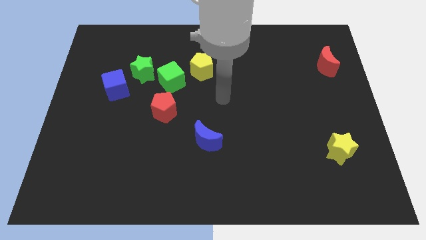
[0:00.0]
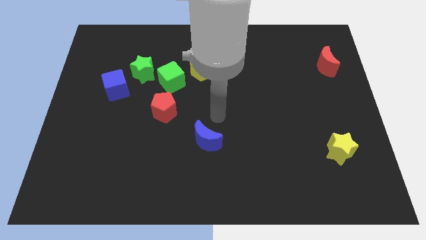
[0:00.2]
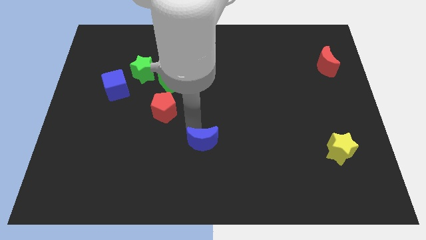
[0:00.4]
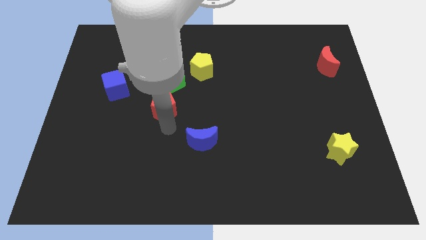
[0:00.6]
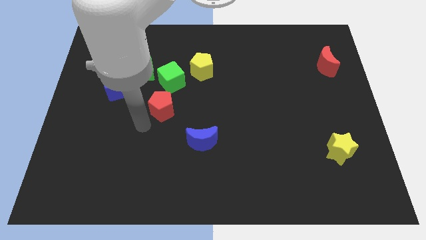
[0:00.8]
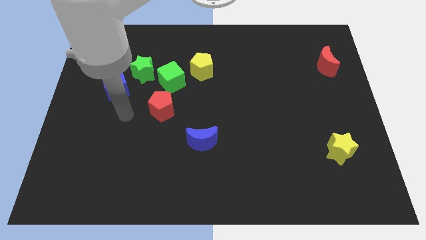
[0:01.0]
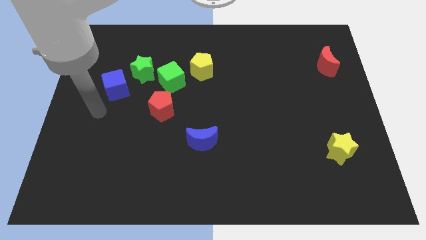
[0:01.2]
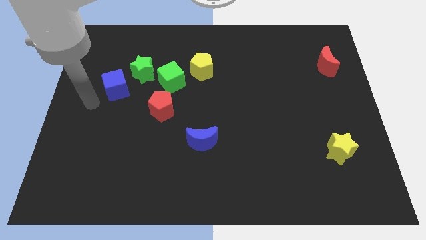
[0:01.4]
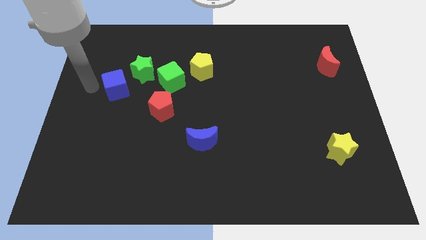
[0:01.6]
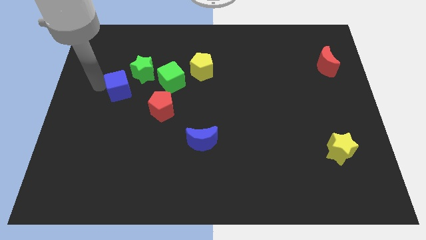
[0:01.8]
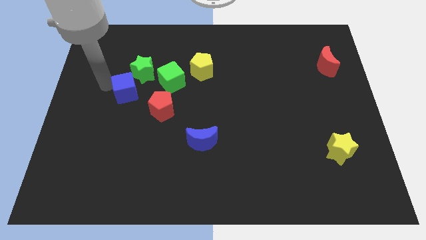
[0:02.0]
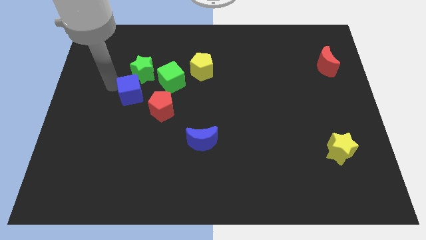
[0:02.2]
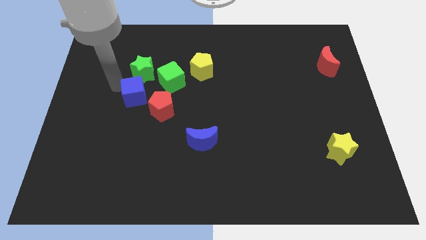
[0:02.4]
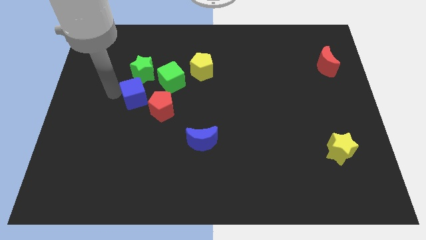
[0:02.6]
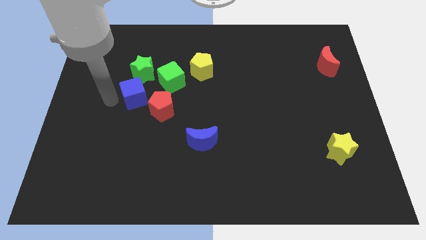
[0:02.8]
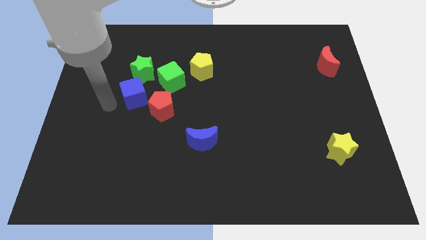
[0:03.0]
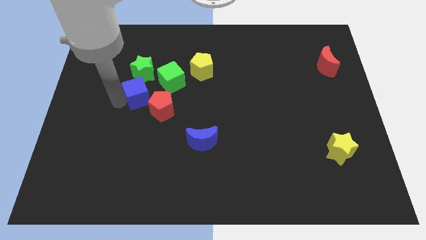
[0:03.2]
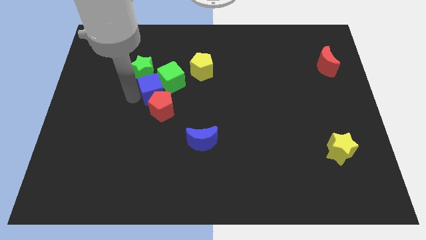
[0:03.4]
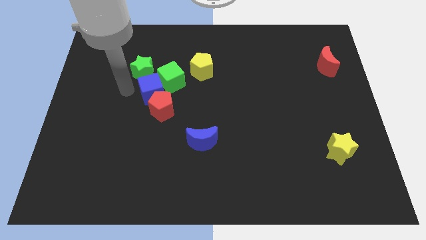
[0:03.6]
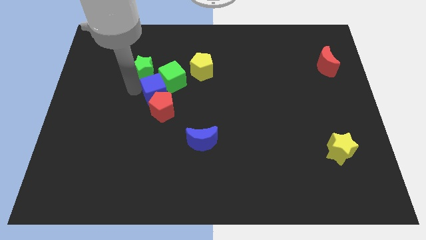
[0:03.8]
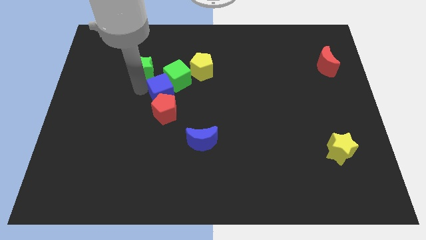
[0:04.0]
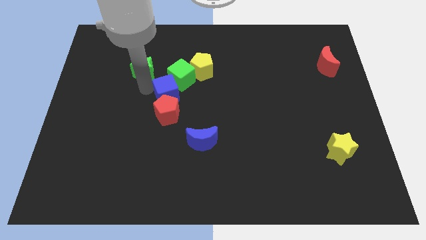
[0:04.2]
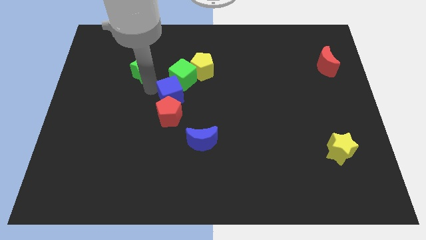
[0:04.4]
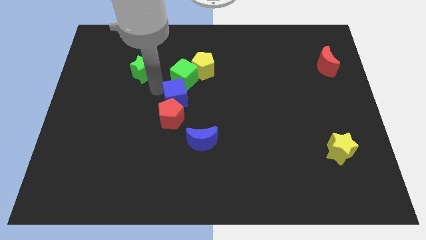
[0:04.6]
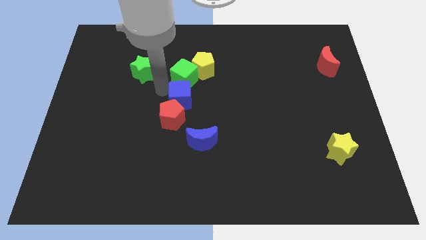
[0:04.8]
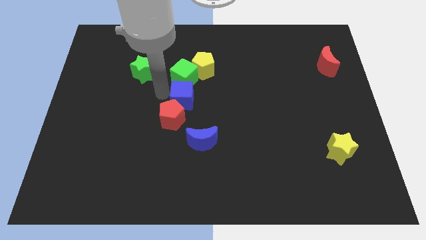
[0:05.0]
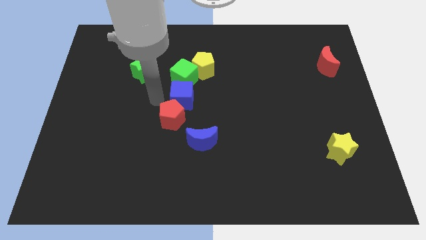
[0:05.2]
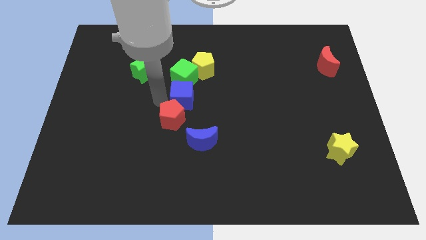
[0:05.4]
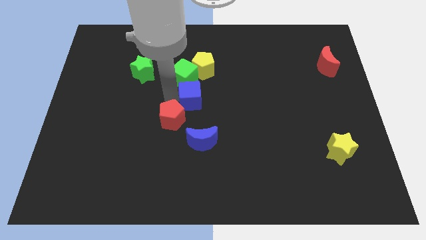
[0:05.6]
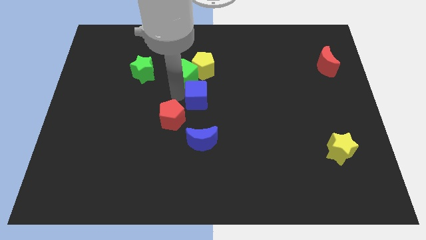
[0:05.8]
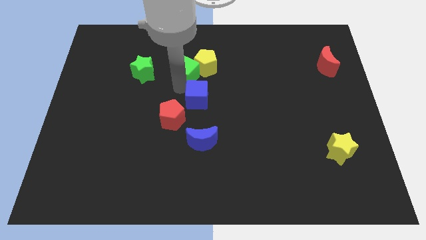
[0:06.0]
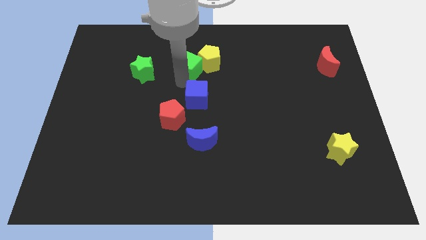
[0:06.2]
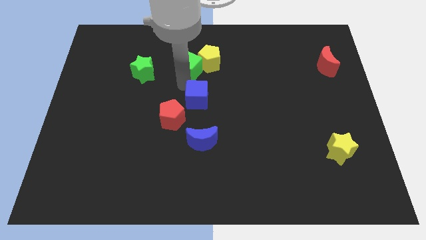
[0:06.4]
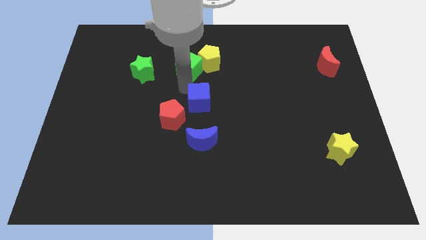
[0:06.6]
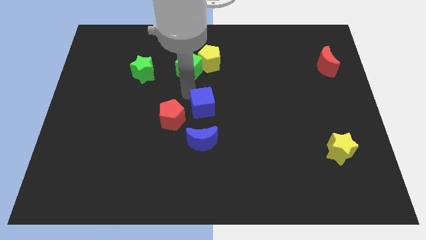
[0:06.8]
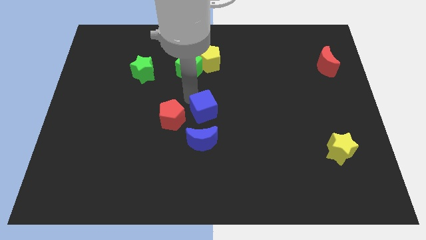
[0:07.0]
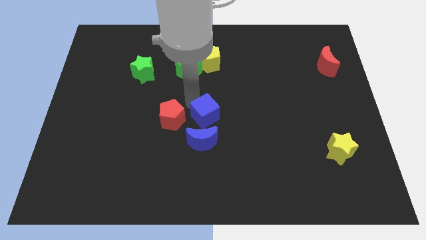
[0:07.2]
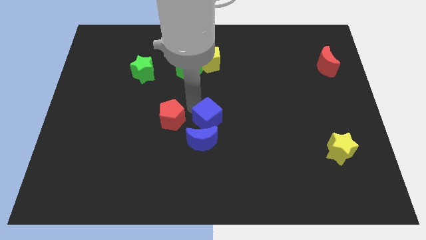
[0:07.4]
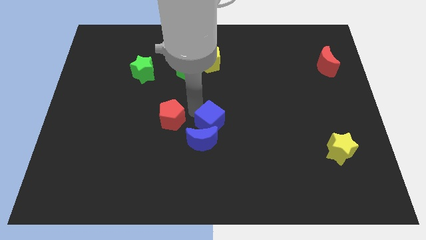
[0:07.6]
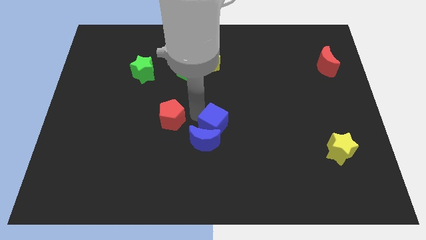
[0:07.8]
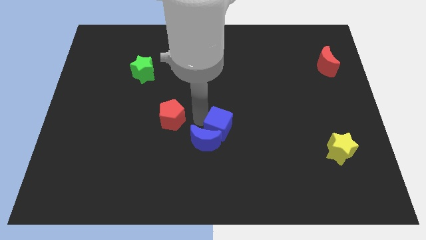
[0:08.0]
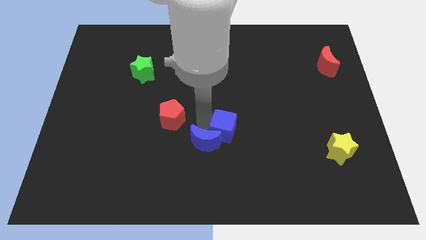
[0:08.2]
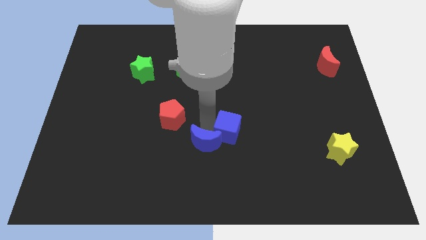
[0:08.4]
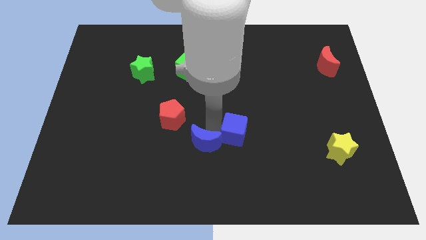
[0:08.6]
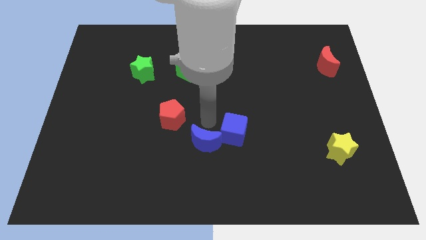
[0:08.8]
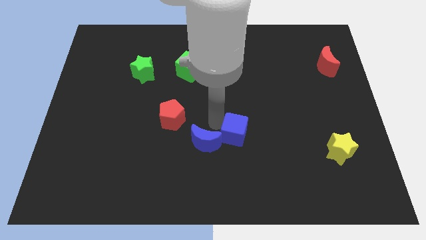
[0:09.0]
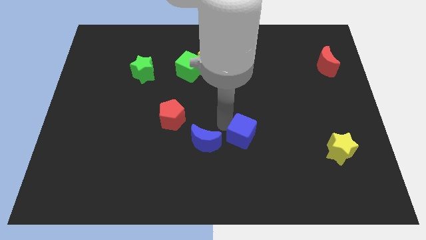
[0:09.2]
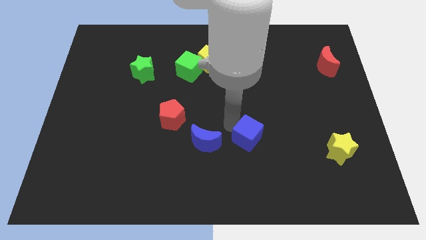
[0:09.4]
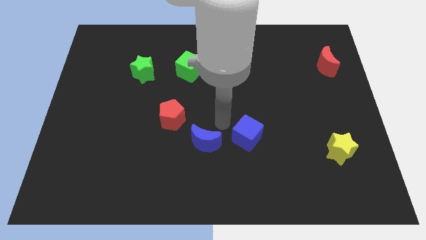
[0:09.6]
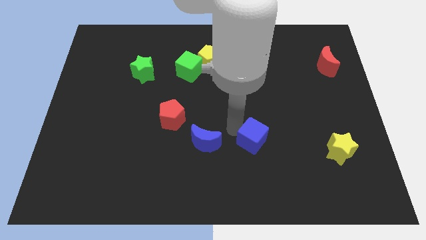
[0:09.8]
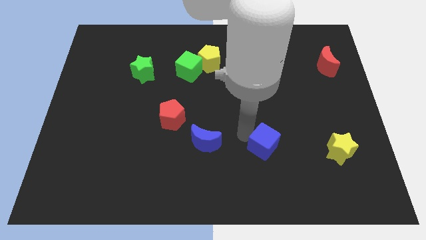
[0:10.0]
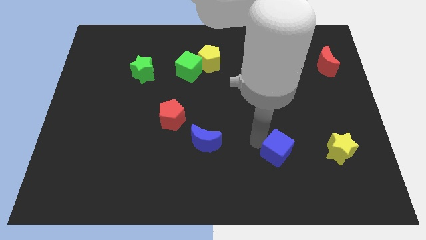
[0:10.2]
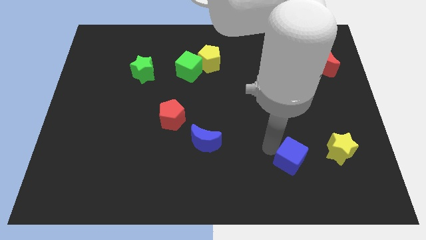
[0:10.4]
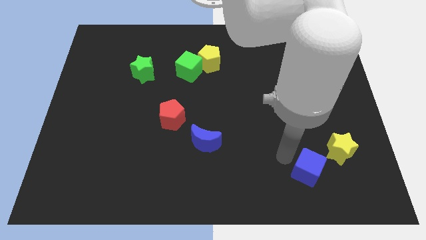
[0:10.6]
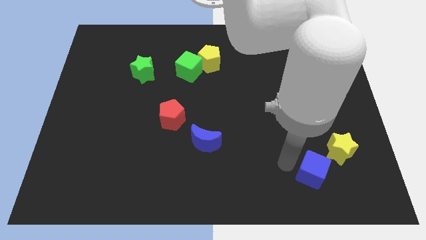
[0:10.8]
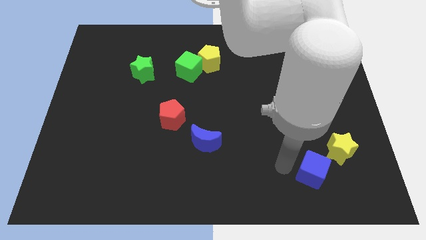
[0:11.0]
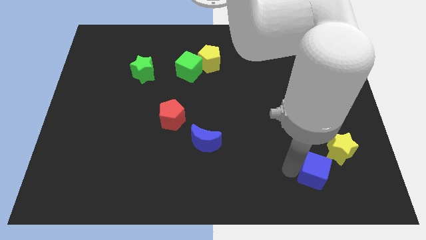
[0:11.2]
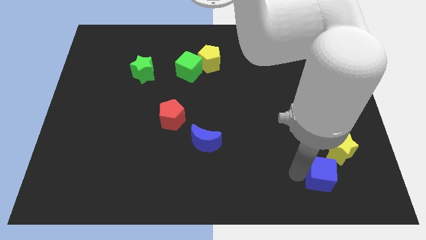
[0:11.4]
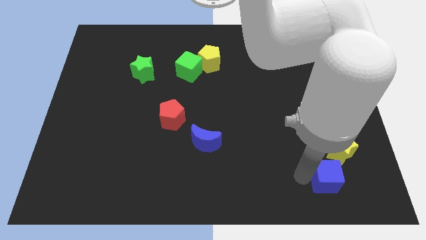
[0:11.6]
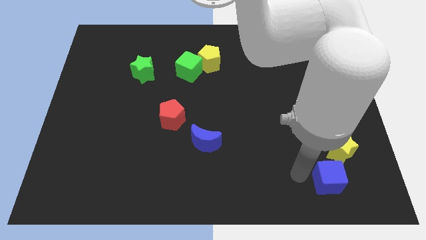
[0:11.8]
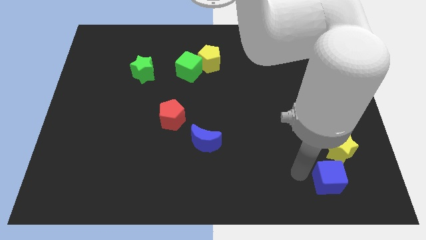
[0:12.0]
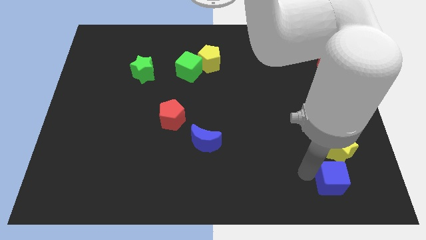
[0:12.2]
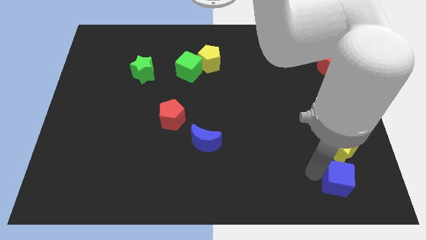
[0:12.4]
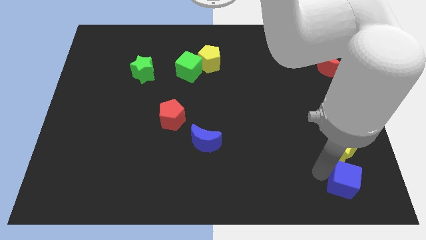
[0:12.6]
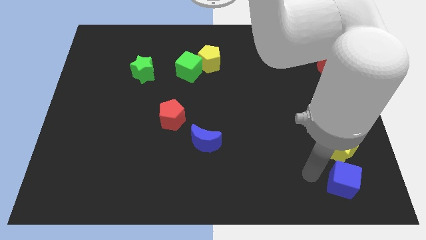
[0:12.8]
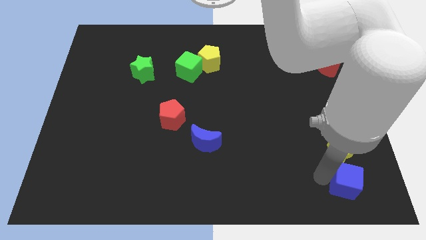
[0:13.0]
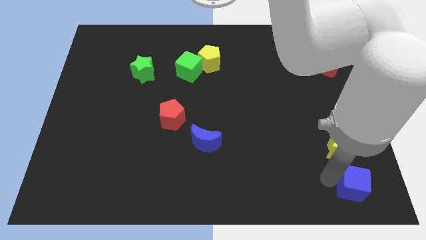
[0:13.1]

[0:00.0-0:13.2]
push the blue cube to the bottom right
